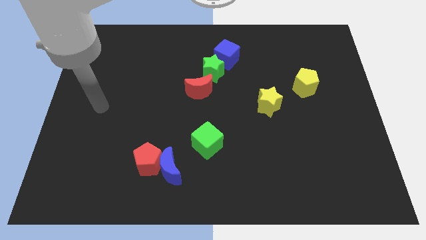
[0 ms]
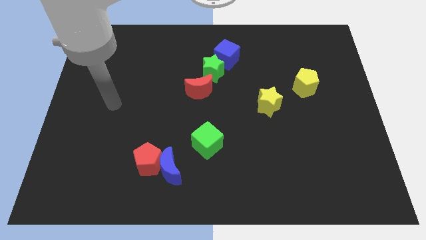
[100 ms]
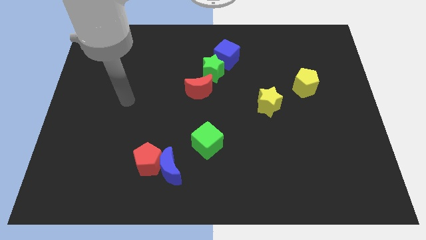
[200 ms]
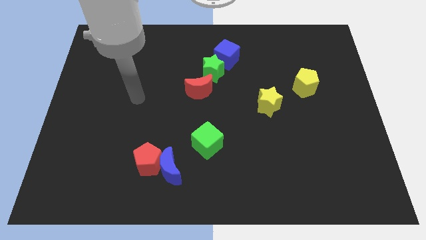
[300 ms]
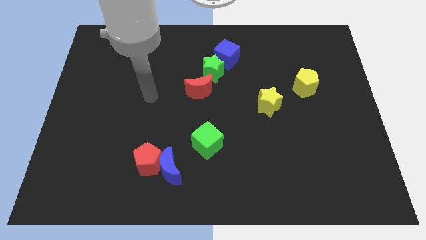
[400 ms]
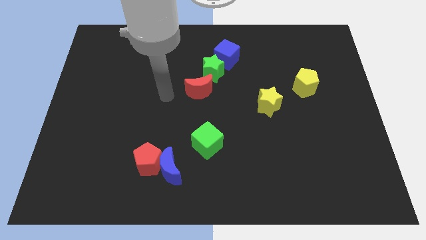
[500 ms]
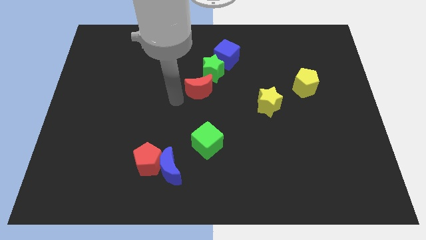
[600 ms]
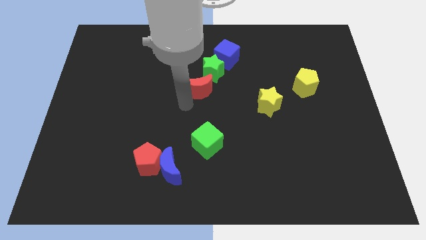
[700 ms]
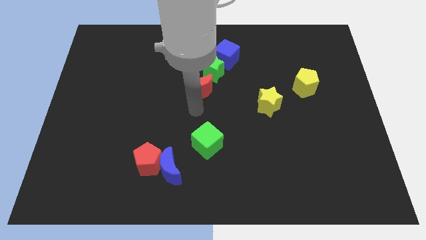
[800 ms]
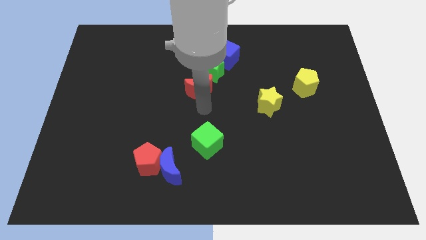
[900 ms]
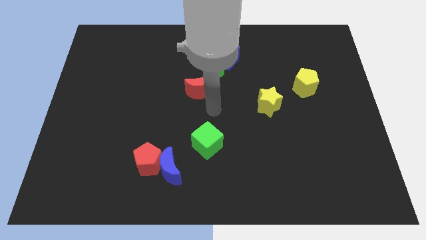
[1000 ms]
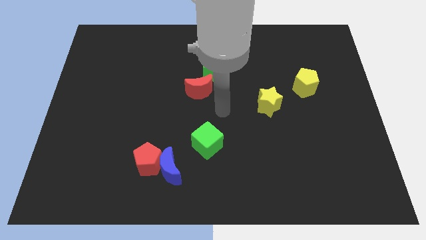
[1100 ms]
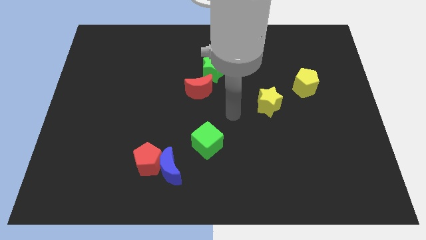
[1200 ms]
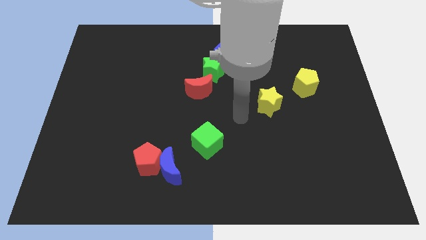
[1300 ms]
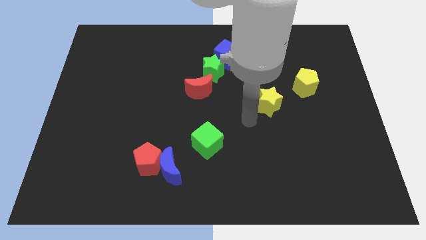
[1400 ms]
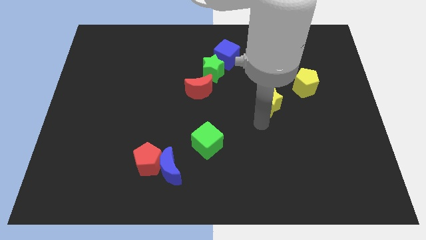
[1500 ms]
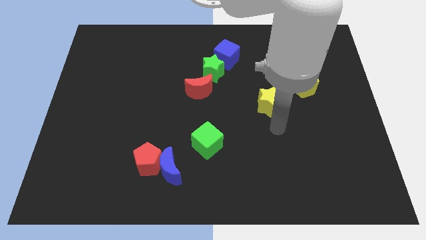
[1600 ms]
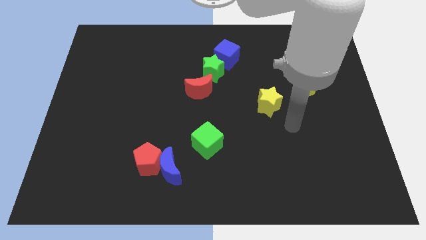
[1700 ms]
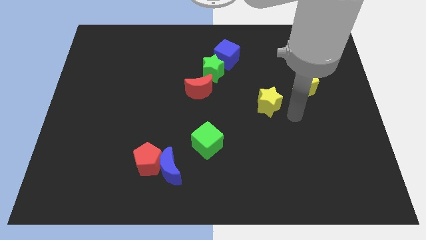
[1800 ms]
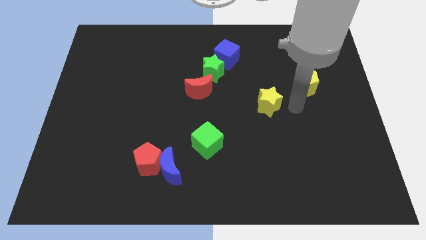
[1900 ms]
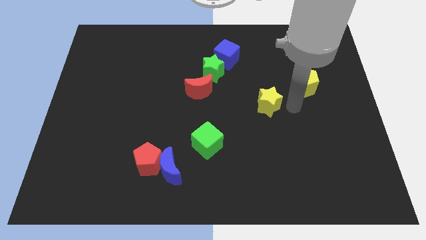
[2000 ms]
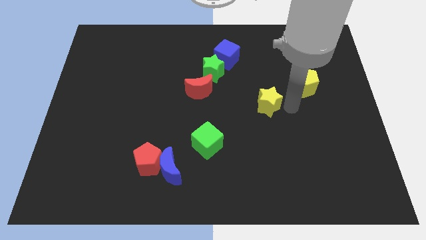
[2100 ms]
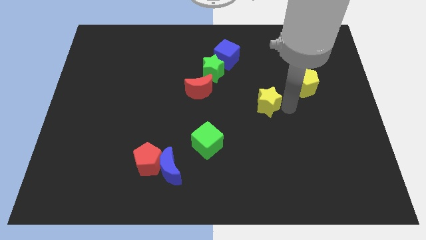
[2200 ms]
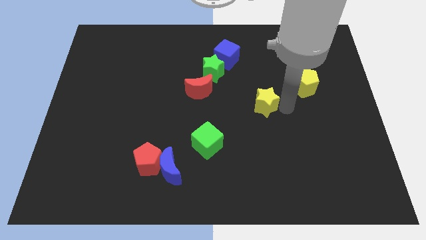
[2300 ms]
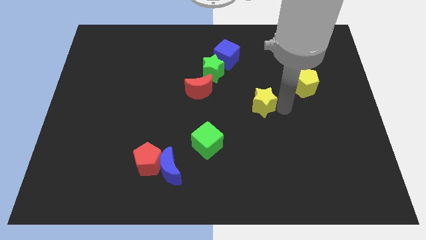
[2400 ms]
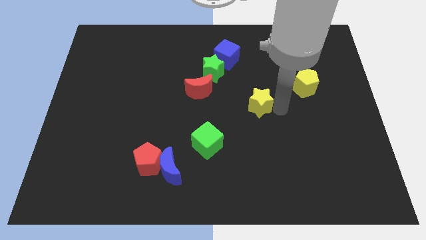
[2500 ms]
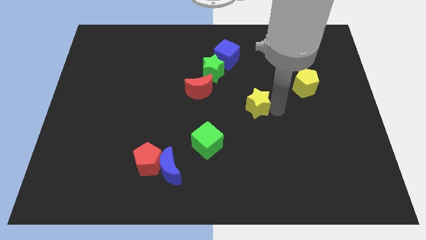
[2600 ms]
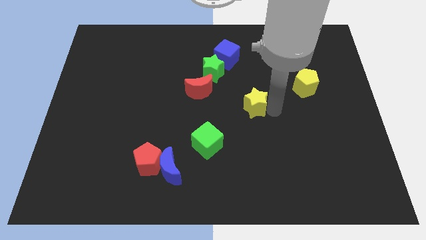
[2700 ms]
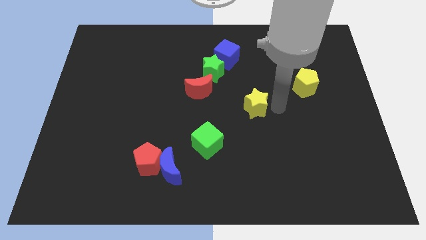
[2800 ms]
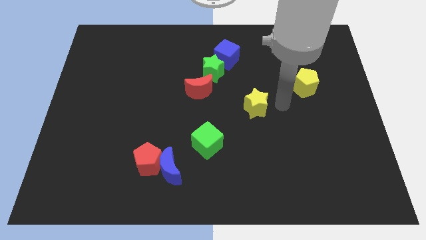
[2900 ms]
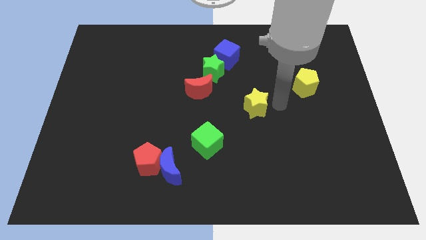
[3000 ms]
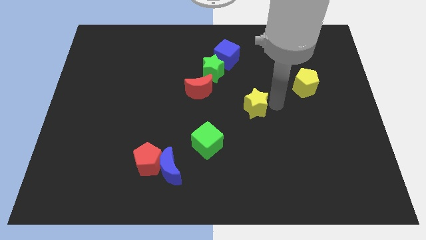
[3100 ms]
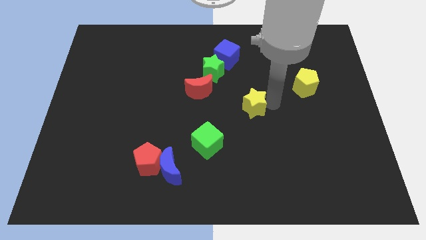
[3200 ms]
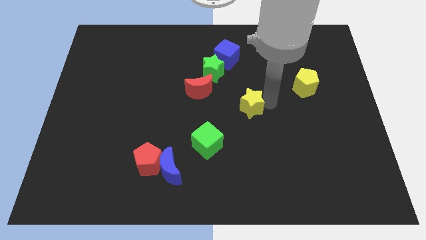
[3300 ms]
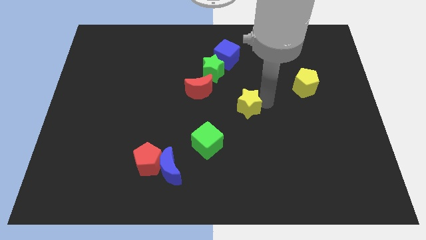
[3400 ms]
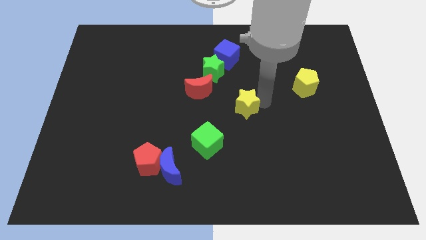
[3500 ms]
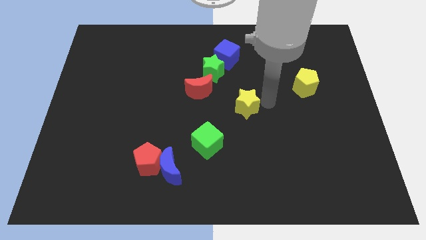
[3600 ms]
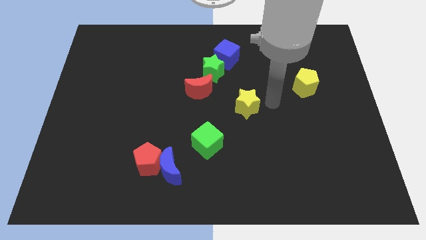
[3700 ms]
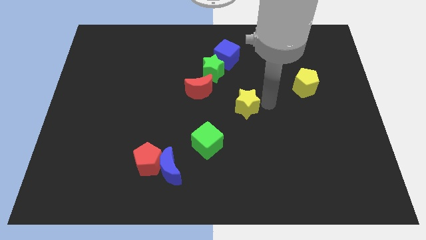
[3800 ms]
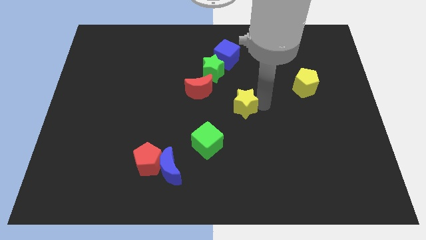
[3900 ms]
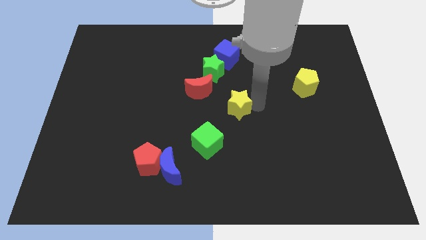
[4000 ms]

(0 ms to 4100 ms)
push the yellow star to the left a bit

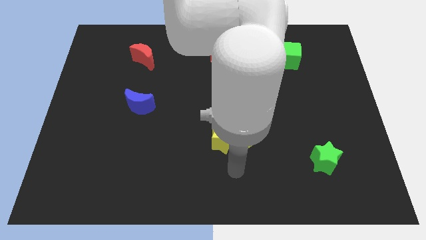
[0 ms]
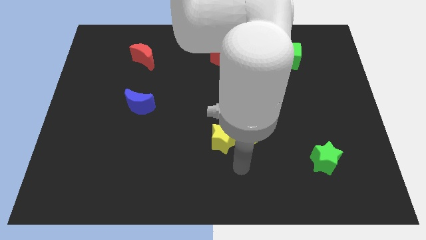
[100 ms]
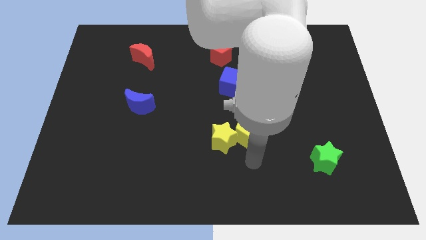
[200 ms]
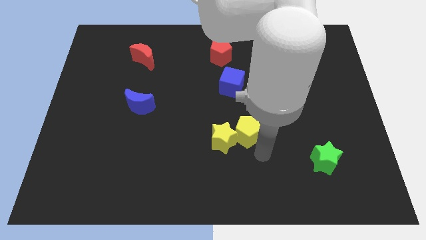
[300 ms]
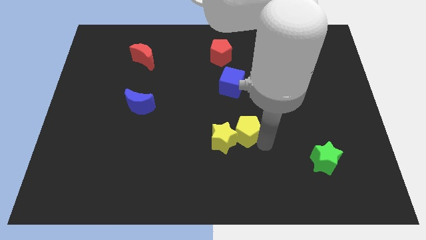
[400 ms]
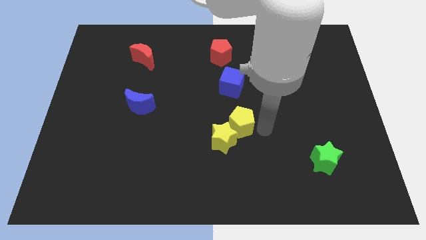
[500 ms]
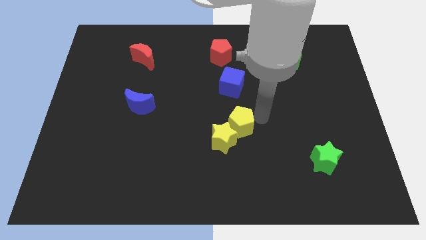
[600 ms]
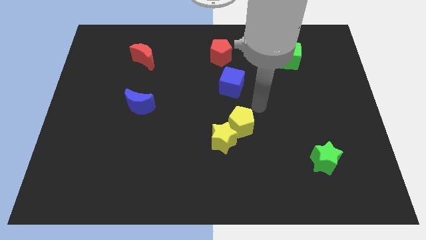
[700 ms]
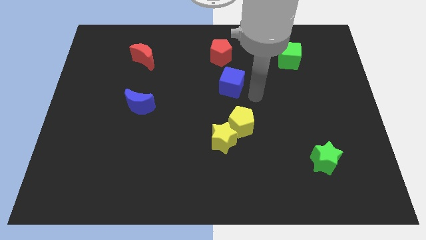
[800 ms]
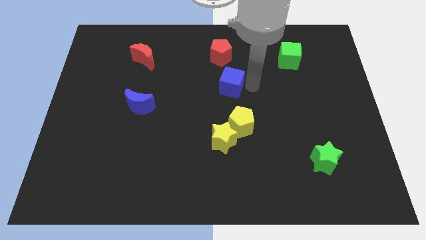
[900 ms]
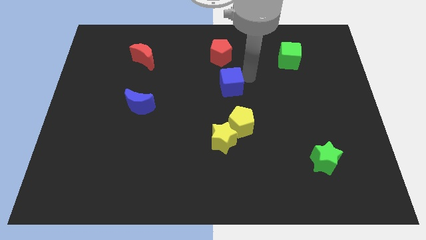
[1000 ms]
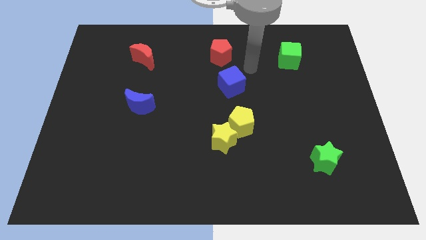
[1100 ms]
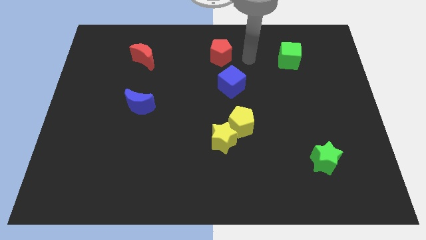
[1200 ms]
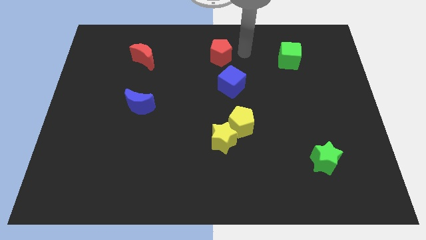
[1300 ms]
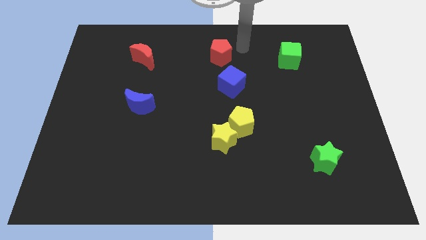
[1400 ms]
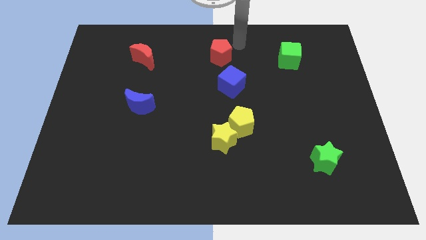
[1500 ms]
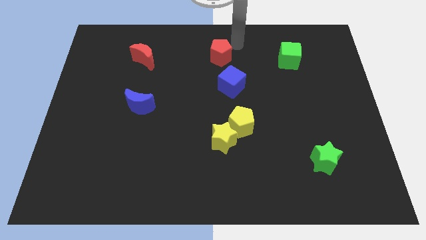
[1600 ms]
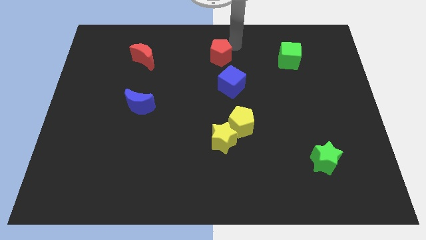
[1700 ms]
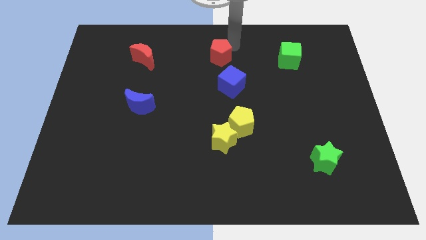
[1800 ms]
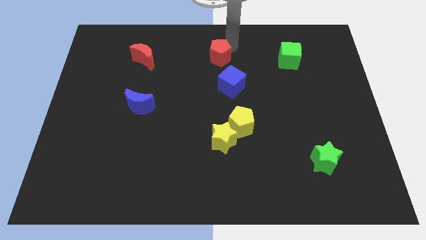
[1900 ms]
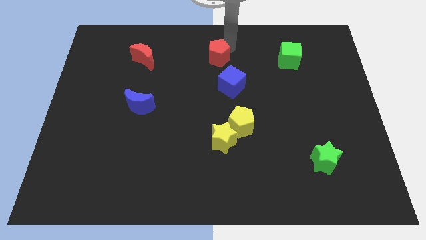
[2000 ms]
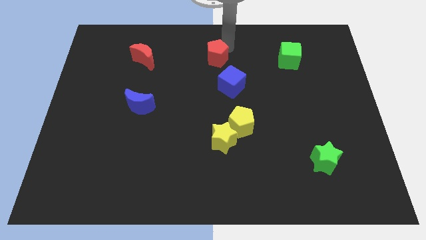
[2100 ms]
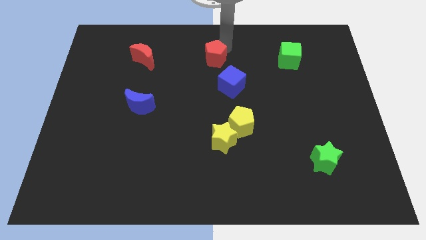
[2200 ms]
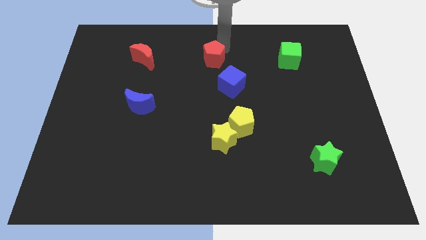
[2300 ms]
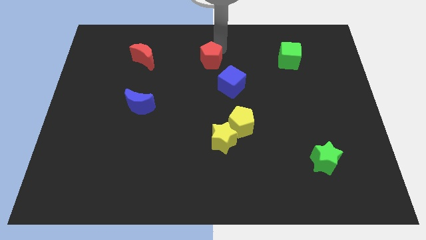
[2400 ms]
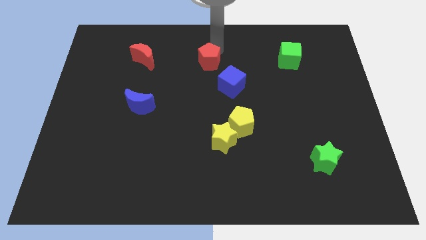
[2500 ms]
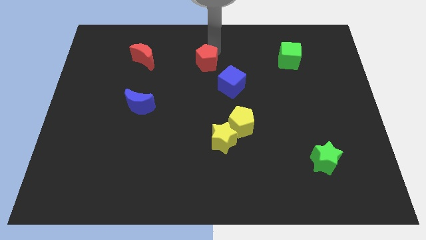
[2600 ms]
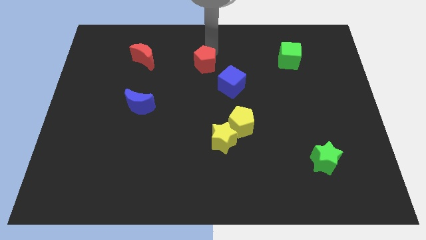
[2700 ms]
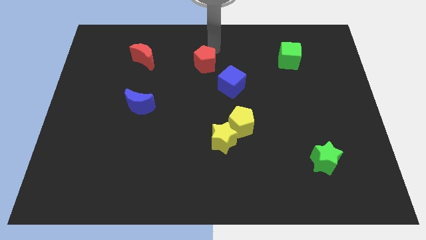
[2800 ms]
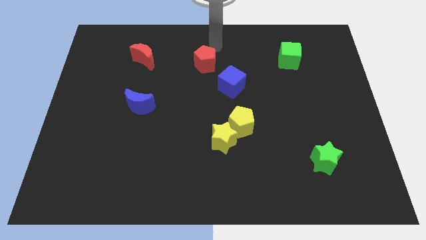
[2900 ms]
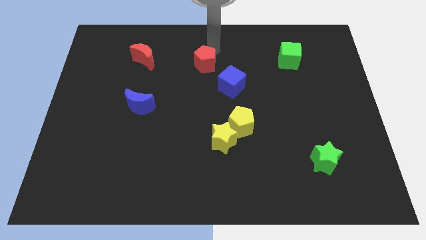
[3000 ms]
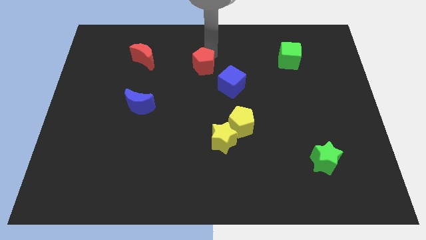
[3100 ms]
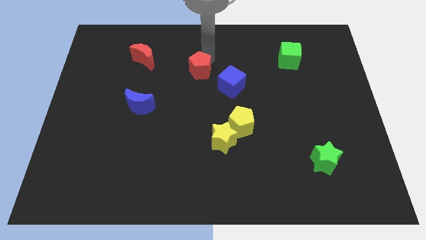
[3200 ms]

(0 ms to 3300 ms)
push the red pentagon a bit diagonally downwards and to the left

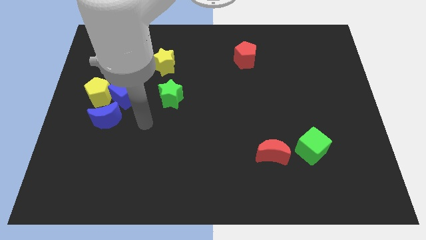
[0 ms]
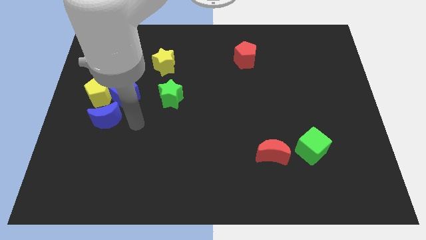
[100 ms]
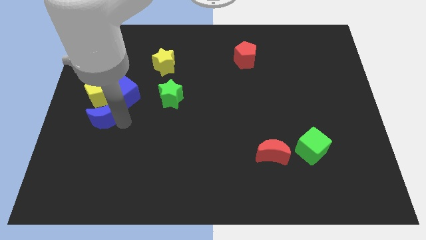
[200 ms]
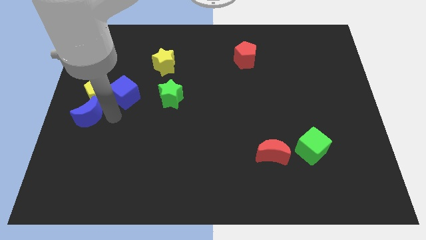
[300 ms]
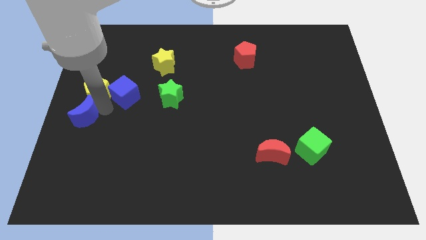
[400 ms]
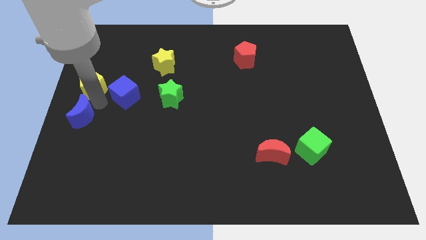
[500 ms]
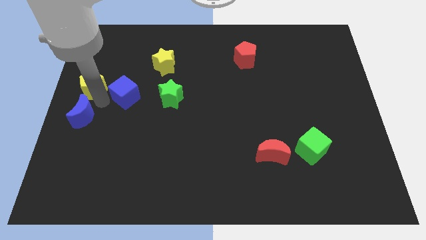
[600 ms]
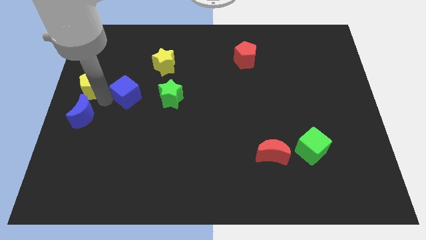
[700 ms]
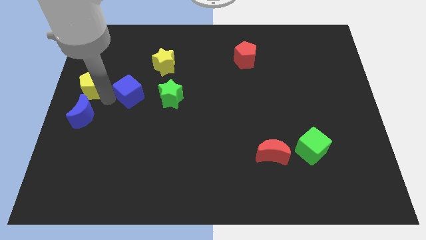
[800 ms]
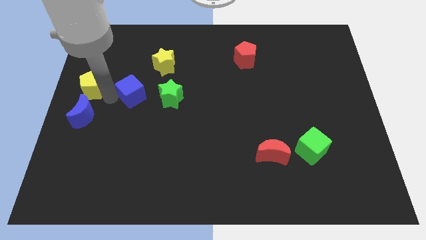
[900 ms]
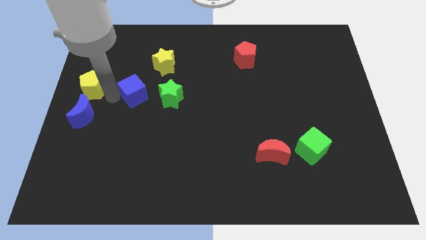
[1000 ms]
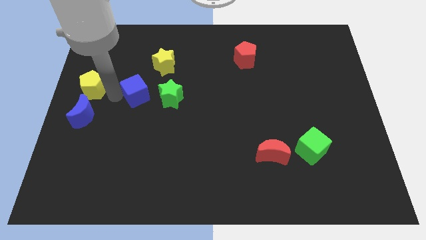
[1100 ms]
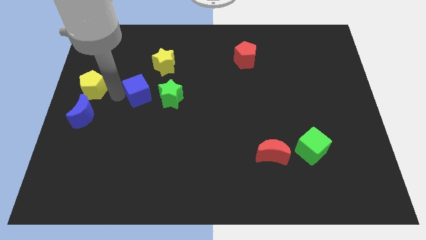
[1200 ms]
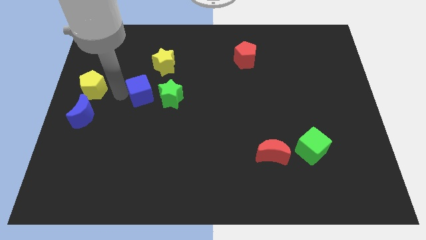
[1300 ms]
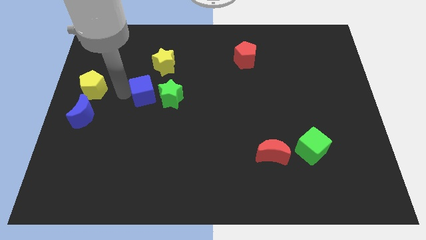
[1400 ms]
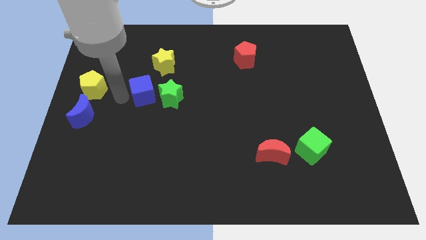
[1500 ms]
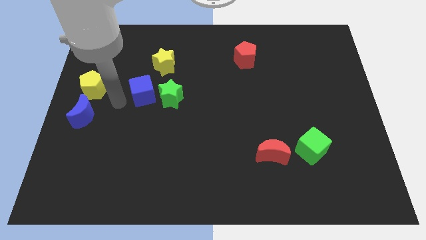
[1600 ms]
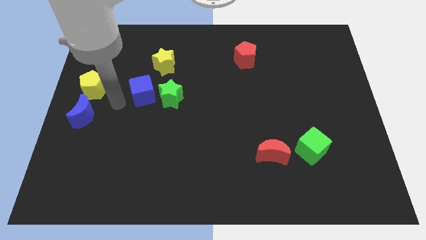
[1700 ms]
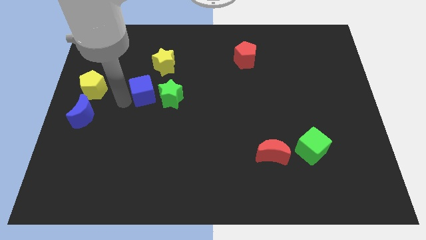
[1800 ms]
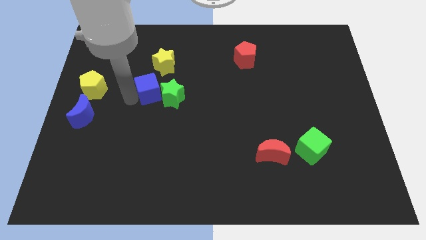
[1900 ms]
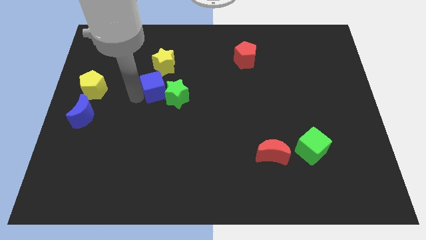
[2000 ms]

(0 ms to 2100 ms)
slightly slide the blue cube right
